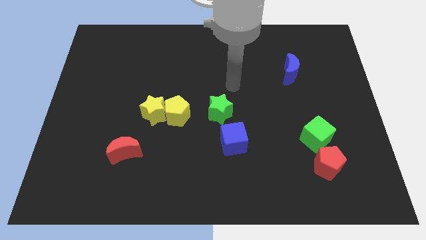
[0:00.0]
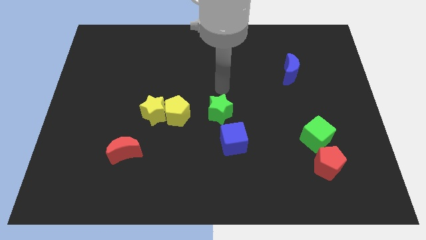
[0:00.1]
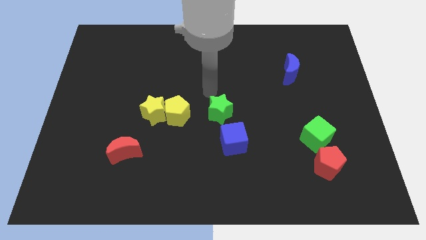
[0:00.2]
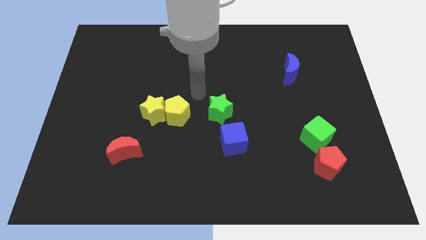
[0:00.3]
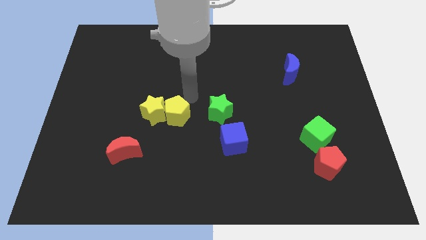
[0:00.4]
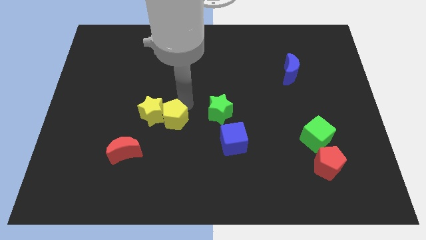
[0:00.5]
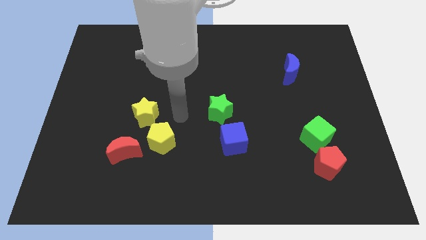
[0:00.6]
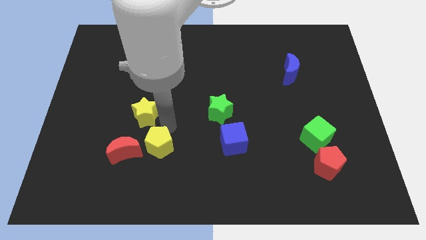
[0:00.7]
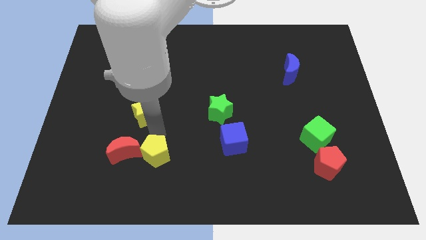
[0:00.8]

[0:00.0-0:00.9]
separate the yellow star from the yellow pentagon

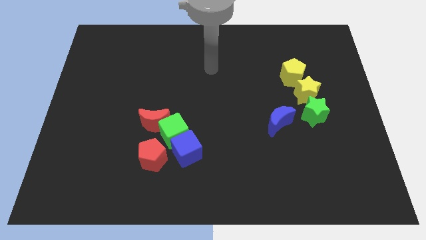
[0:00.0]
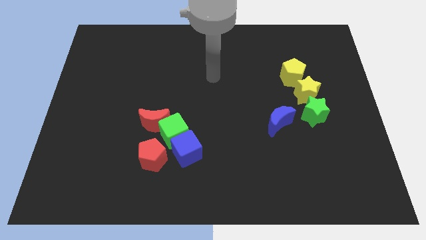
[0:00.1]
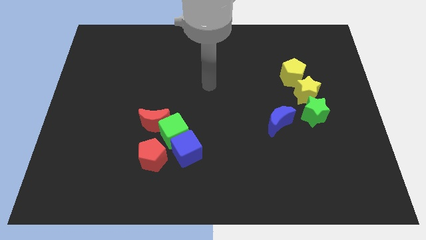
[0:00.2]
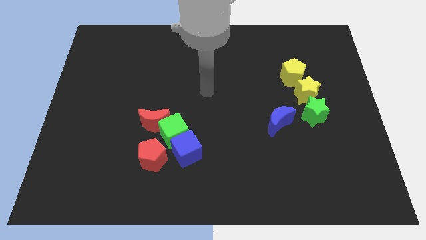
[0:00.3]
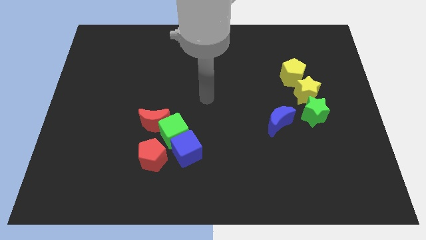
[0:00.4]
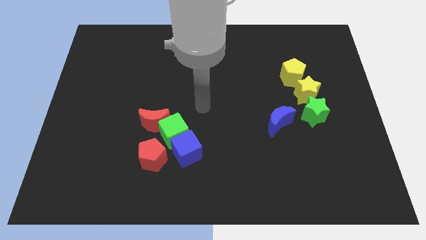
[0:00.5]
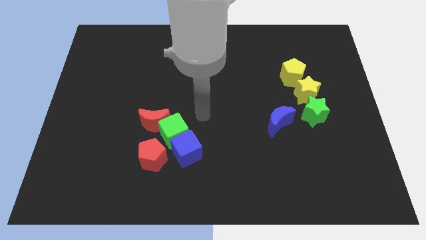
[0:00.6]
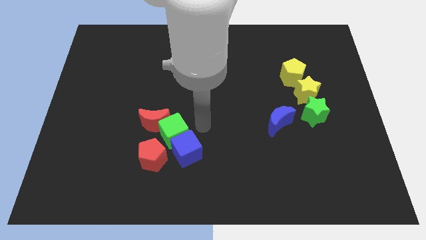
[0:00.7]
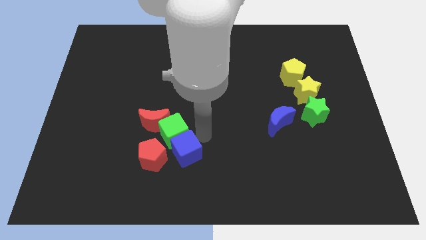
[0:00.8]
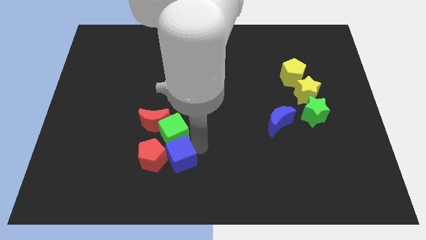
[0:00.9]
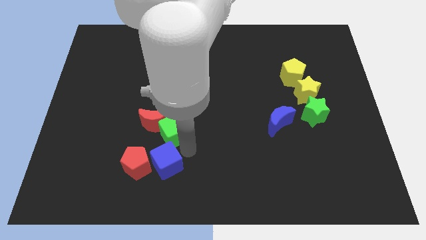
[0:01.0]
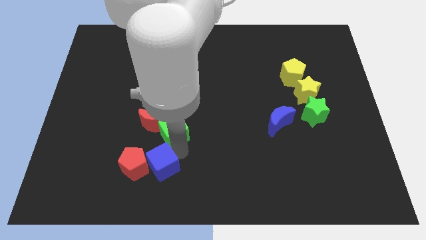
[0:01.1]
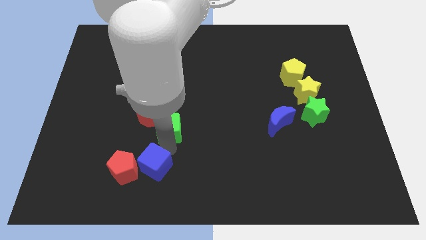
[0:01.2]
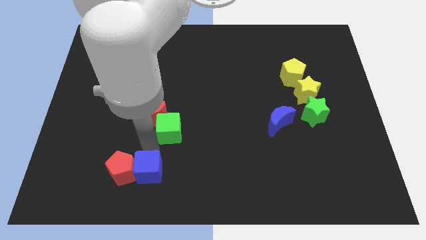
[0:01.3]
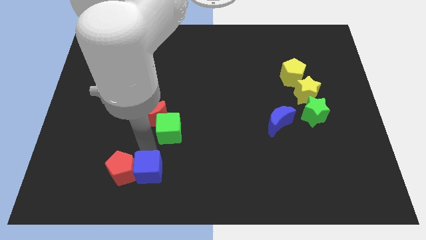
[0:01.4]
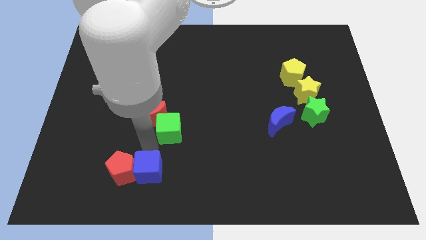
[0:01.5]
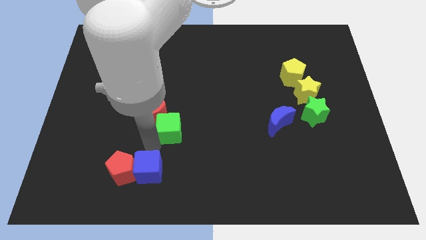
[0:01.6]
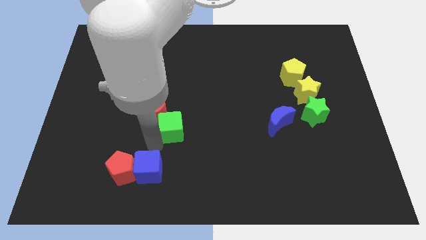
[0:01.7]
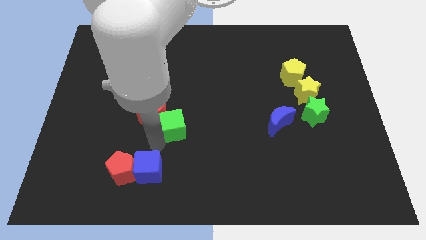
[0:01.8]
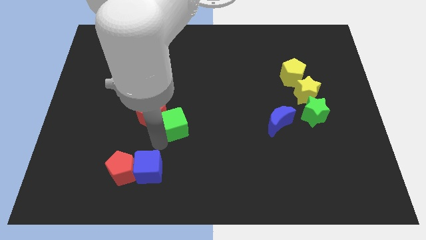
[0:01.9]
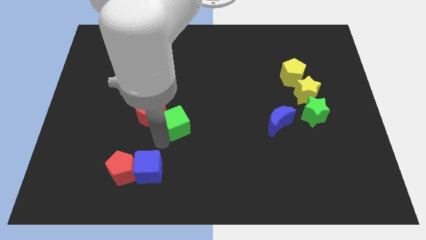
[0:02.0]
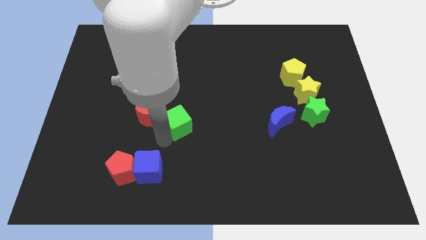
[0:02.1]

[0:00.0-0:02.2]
move the green cube away from the red moon, blue cube, and red pentagon

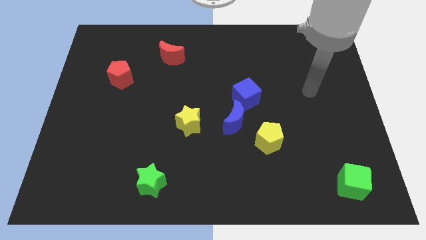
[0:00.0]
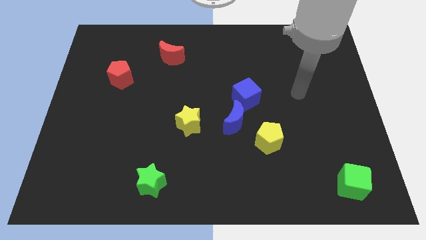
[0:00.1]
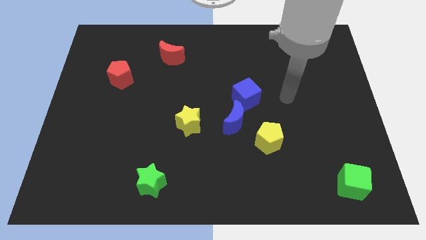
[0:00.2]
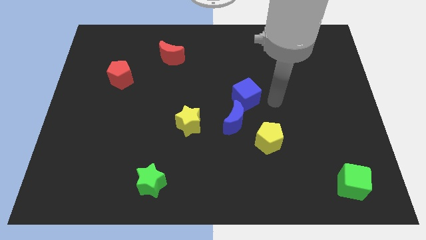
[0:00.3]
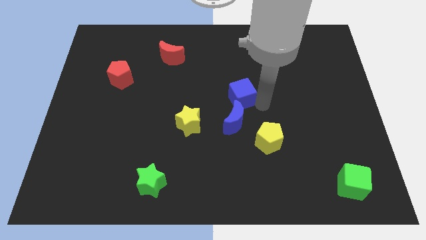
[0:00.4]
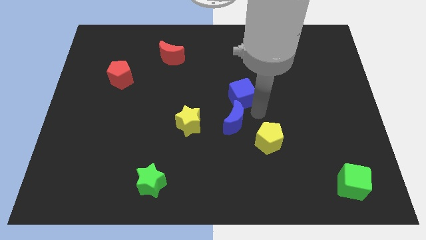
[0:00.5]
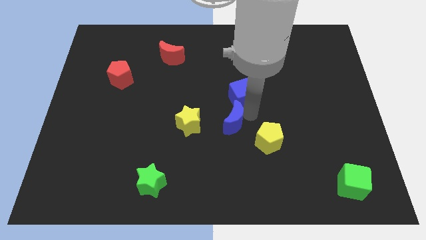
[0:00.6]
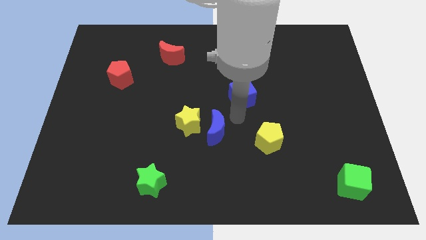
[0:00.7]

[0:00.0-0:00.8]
pull the blue cube apart from the blue moon

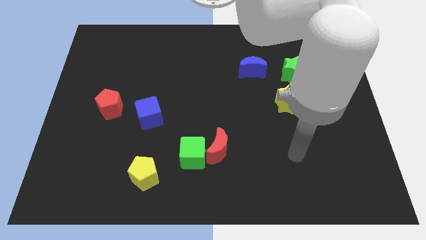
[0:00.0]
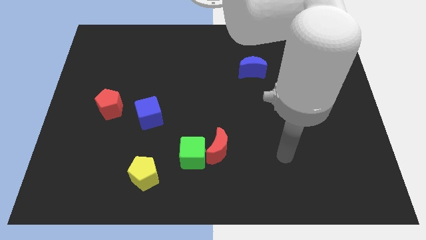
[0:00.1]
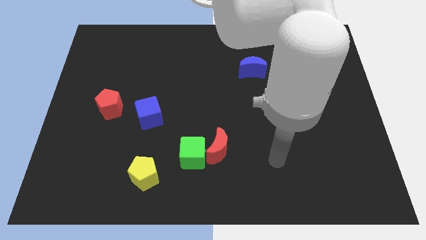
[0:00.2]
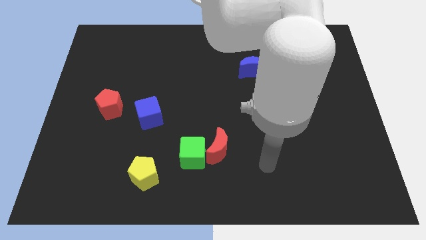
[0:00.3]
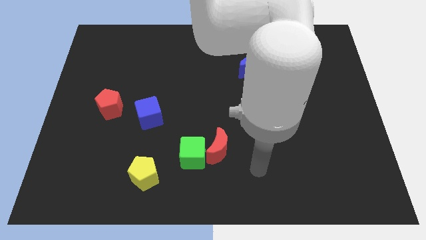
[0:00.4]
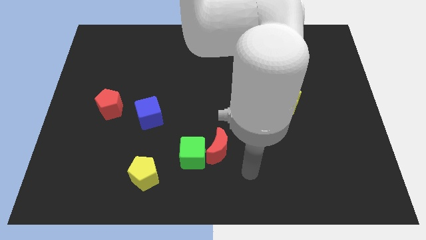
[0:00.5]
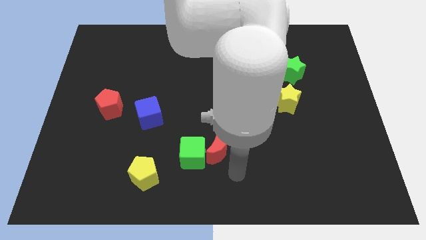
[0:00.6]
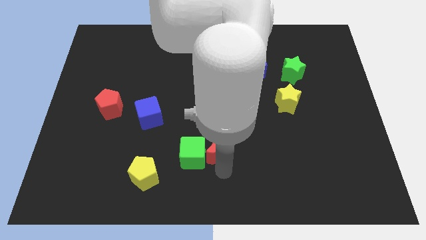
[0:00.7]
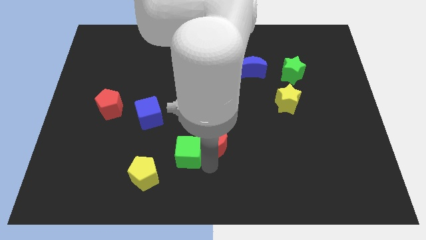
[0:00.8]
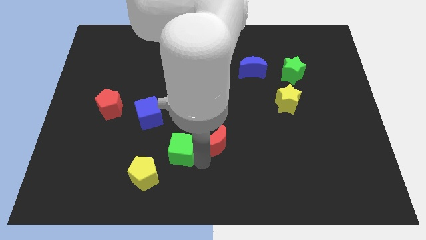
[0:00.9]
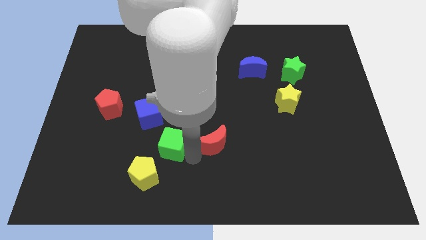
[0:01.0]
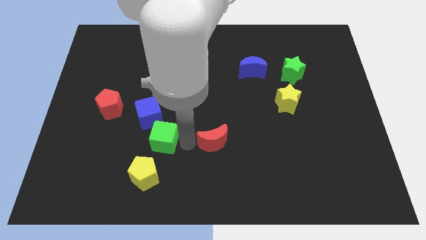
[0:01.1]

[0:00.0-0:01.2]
separate the red moon from the green cube

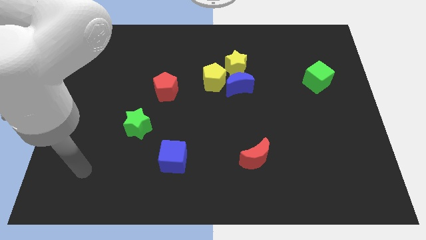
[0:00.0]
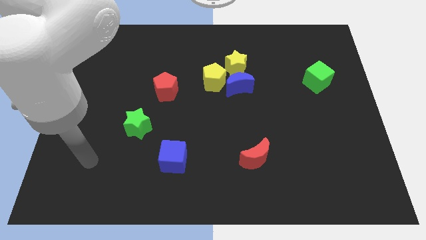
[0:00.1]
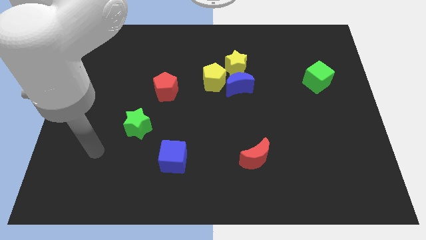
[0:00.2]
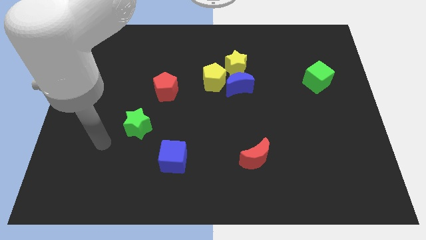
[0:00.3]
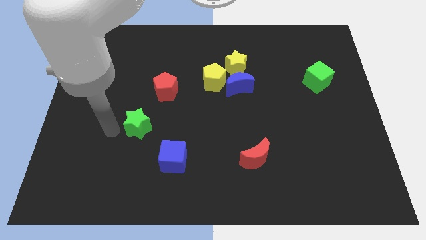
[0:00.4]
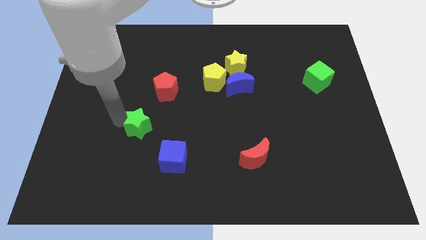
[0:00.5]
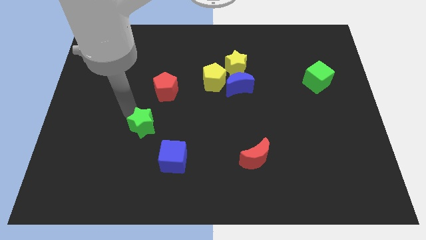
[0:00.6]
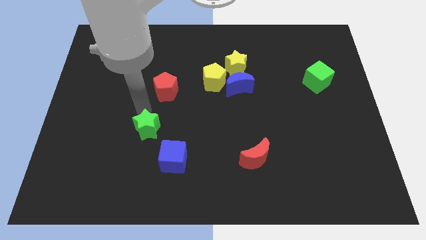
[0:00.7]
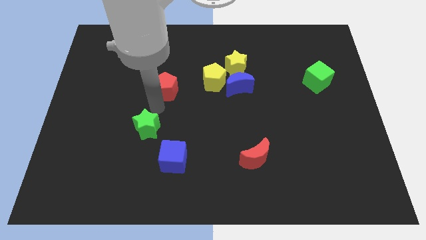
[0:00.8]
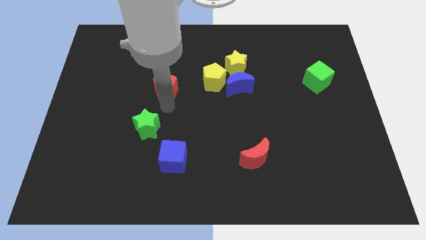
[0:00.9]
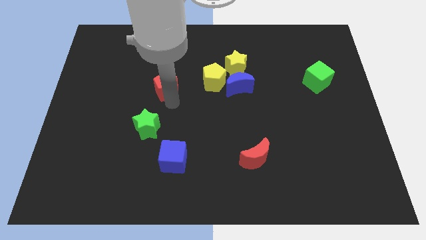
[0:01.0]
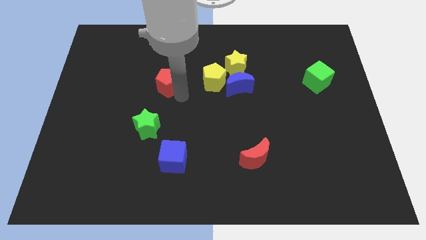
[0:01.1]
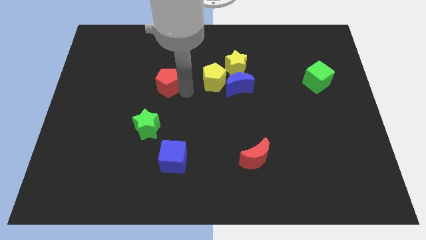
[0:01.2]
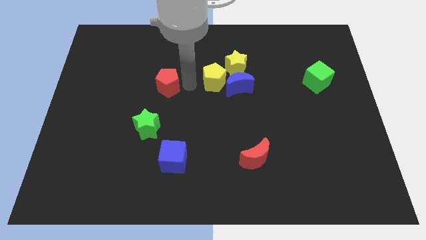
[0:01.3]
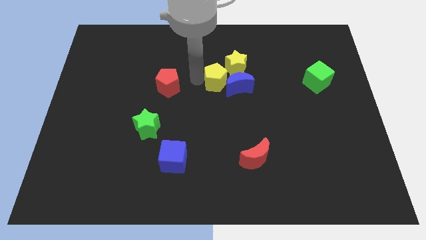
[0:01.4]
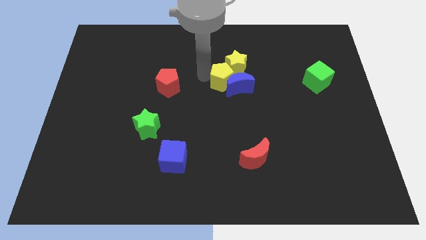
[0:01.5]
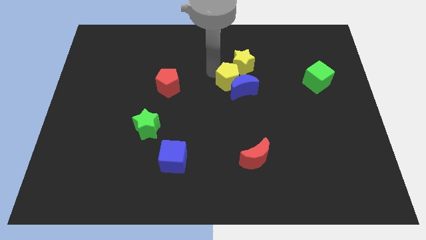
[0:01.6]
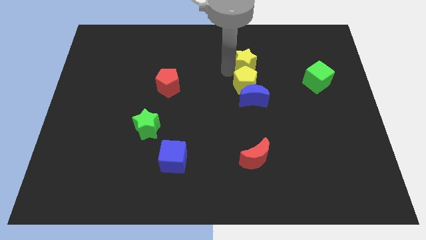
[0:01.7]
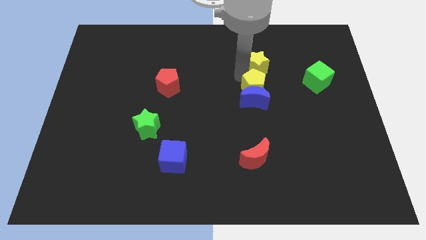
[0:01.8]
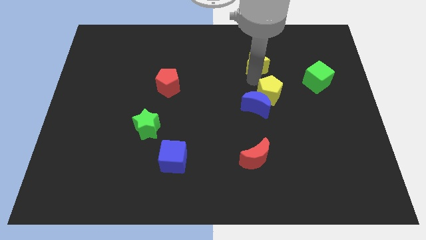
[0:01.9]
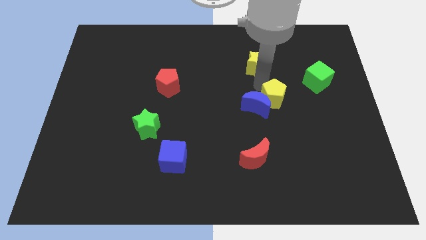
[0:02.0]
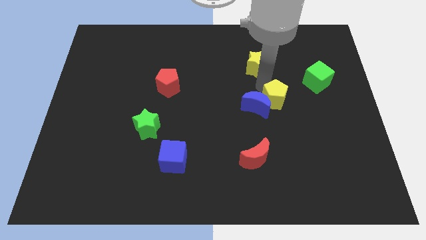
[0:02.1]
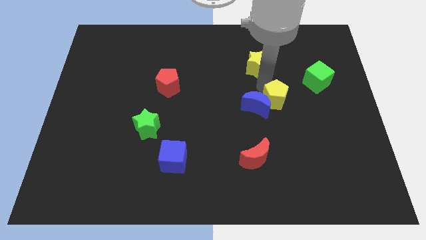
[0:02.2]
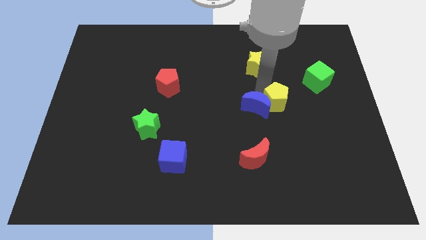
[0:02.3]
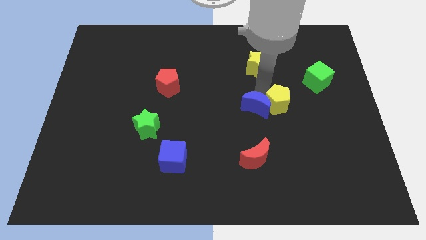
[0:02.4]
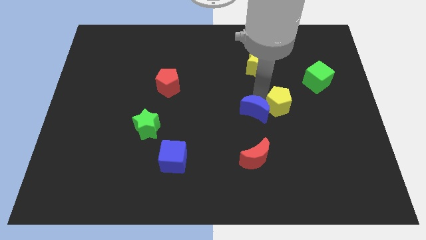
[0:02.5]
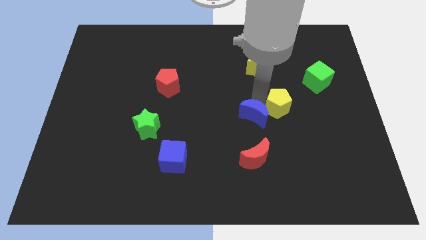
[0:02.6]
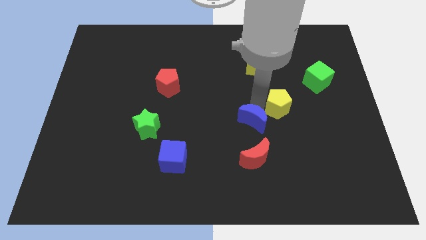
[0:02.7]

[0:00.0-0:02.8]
pull the blue moon apart from the yellow pentagon and yellow star

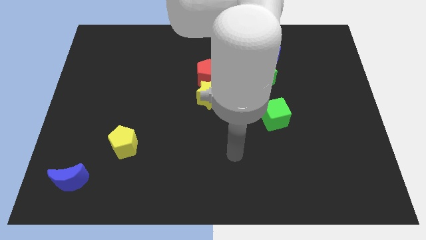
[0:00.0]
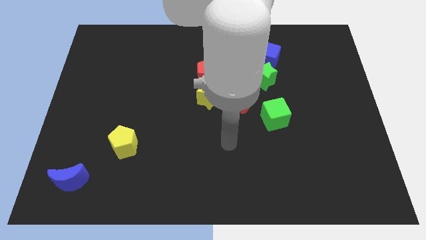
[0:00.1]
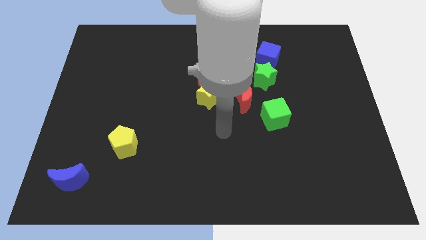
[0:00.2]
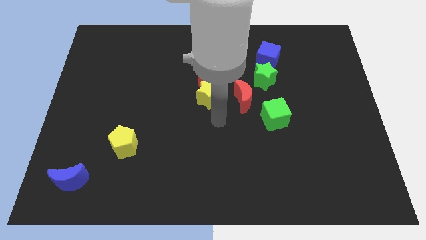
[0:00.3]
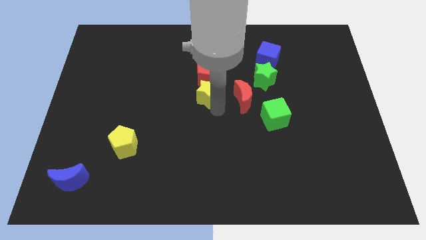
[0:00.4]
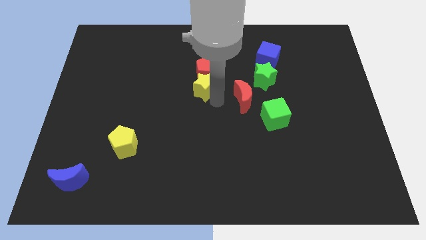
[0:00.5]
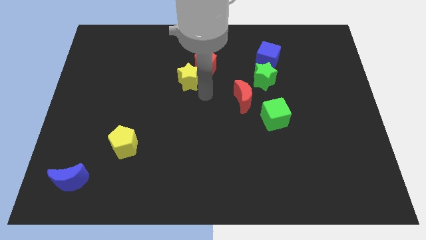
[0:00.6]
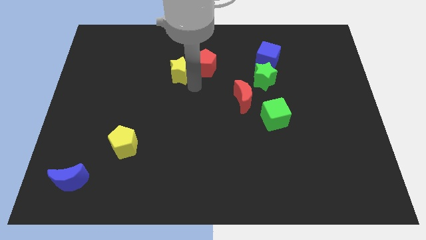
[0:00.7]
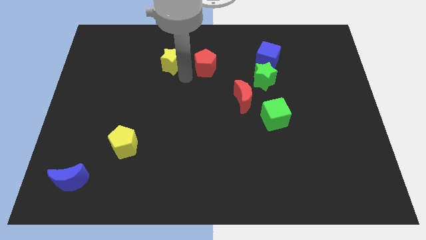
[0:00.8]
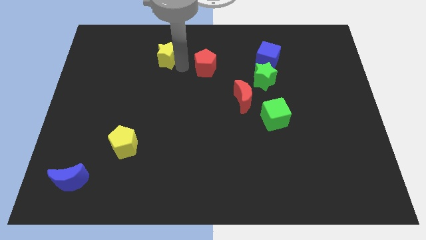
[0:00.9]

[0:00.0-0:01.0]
move the red pentagon away from the yellow star

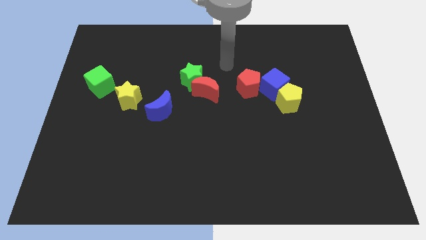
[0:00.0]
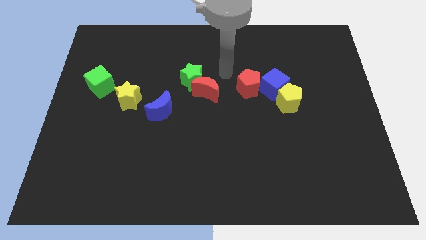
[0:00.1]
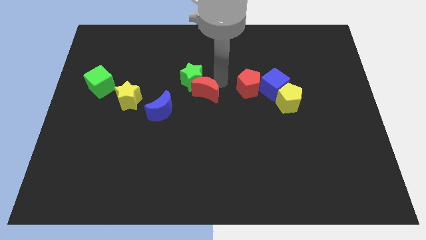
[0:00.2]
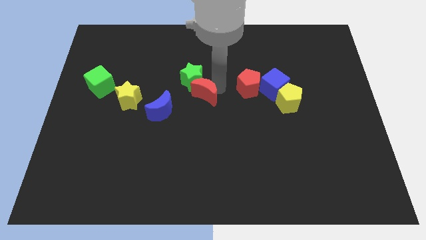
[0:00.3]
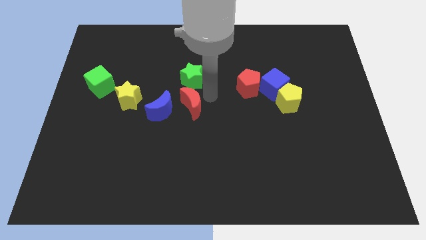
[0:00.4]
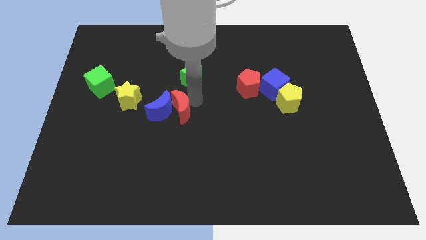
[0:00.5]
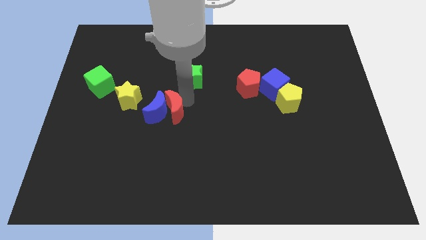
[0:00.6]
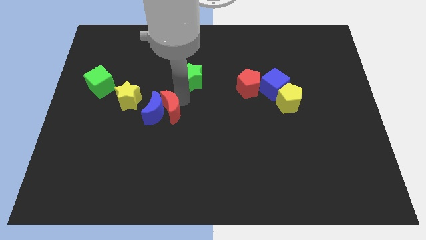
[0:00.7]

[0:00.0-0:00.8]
separate the green star from the red moon
